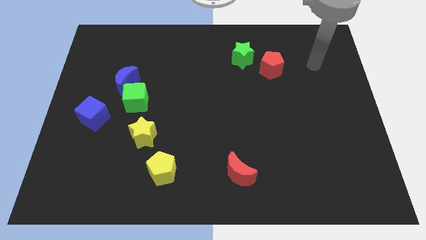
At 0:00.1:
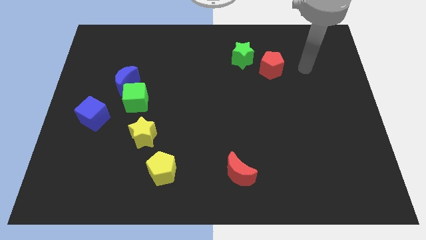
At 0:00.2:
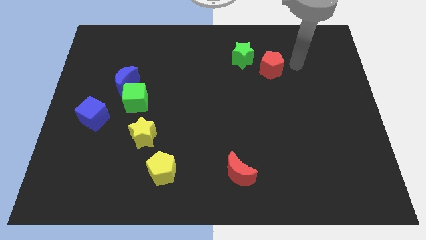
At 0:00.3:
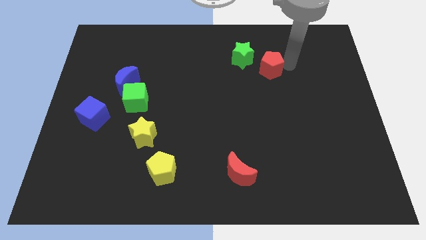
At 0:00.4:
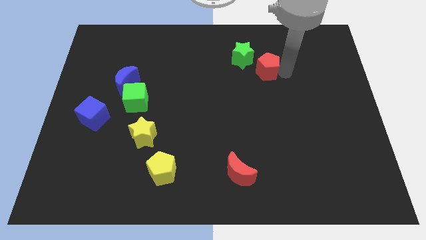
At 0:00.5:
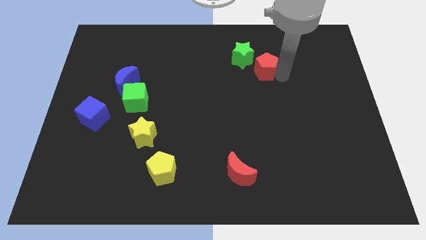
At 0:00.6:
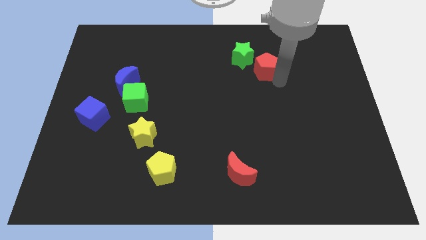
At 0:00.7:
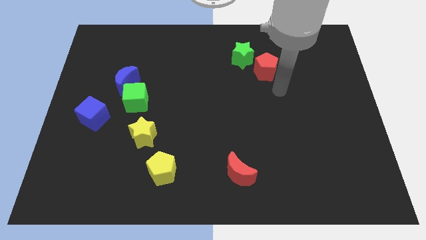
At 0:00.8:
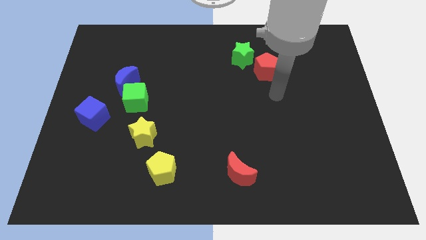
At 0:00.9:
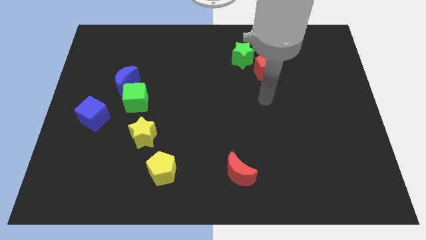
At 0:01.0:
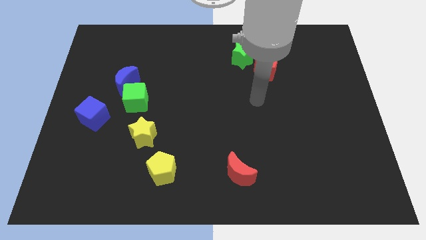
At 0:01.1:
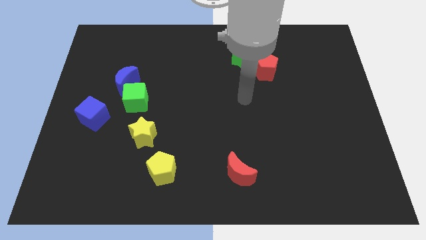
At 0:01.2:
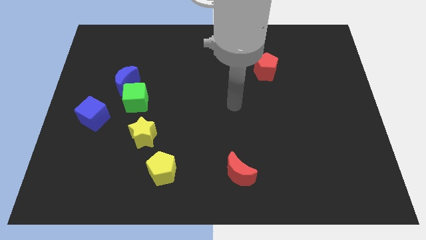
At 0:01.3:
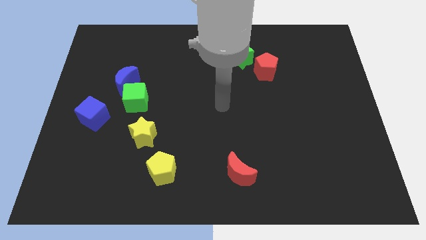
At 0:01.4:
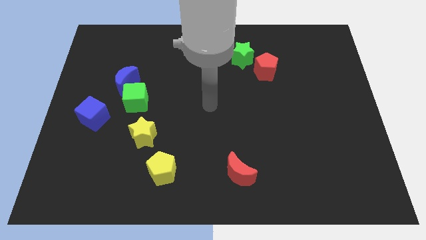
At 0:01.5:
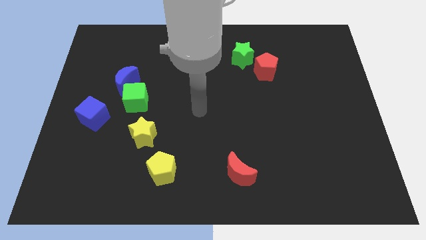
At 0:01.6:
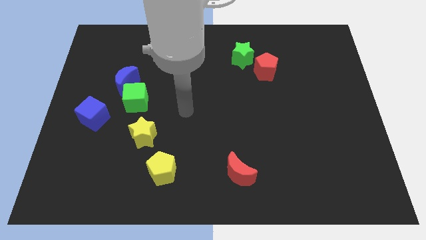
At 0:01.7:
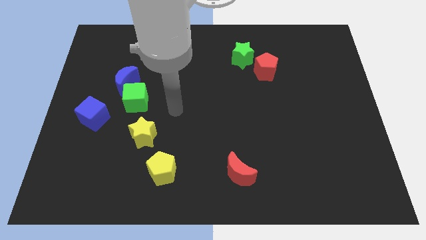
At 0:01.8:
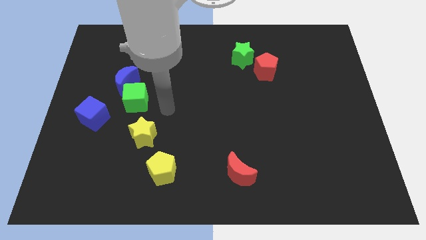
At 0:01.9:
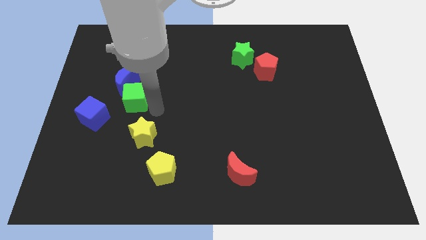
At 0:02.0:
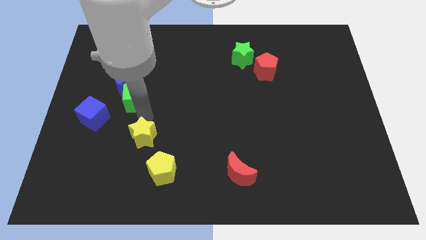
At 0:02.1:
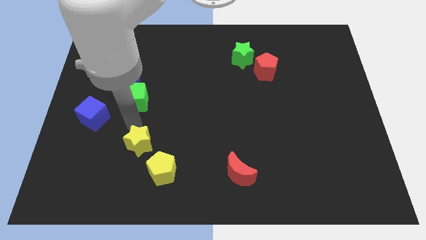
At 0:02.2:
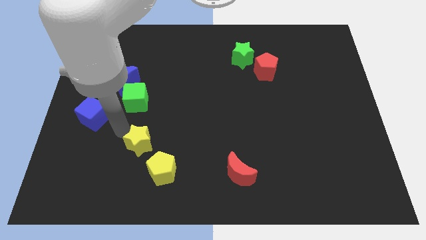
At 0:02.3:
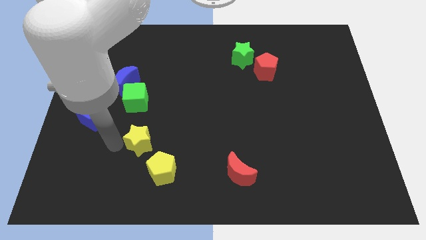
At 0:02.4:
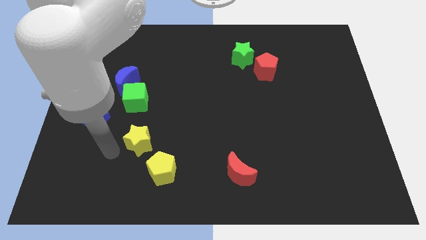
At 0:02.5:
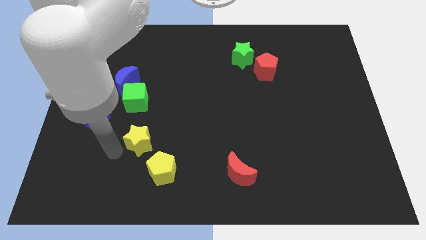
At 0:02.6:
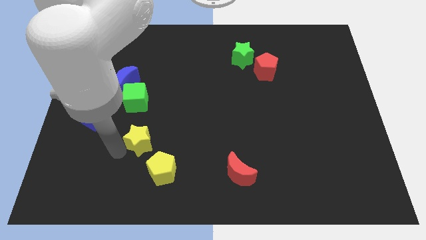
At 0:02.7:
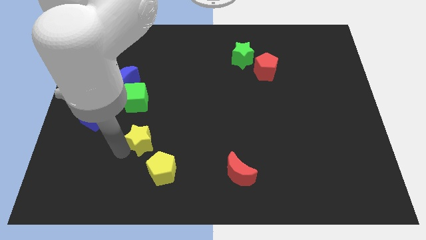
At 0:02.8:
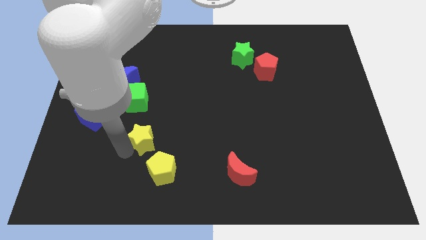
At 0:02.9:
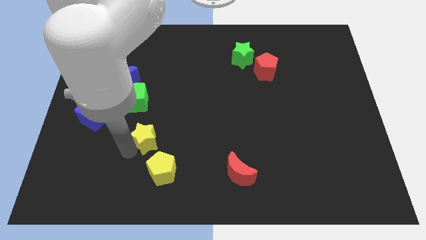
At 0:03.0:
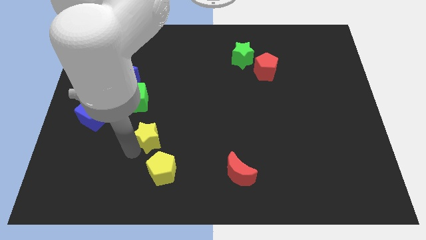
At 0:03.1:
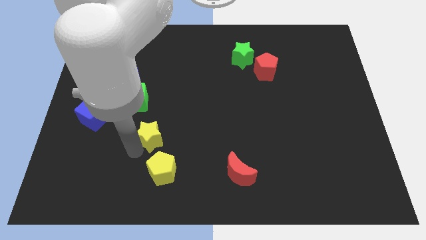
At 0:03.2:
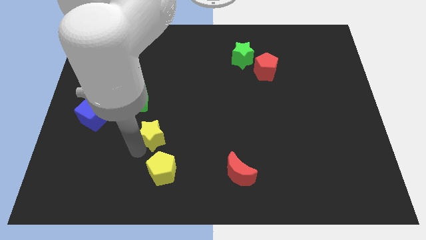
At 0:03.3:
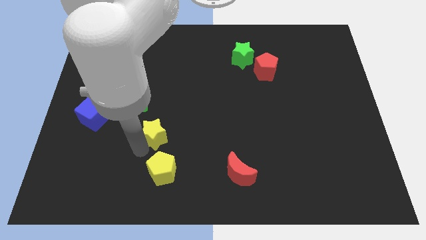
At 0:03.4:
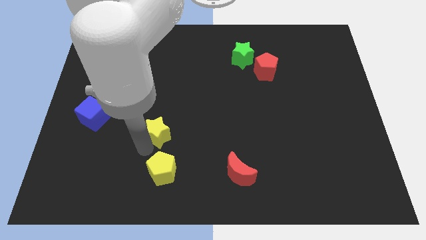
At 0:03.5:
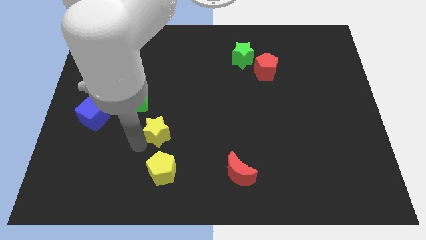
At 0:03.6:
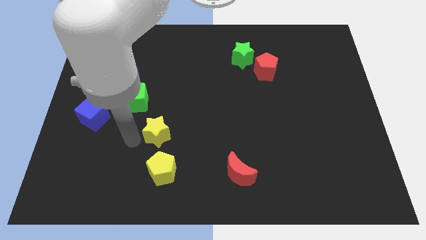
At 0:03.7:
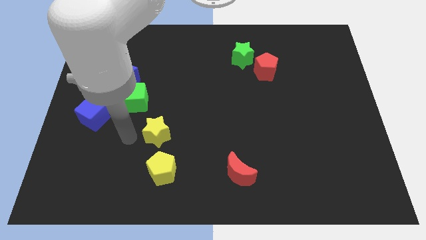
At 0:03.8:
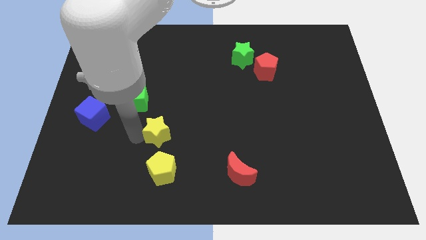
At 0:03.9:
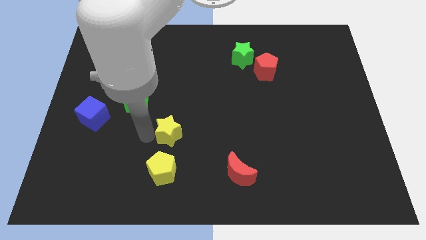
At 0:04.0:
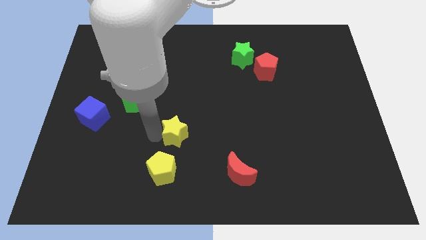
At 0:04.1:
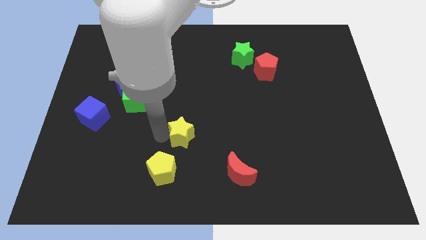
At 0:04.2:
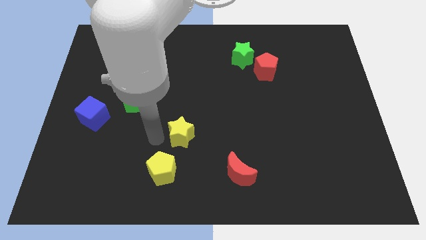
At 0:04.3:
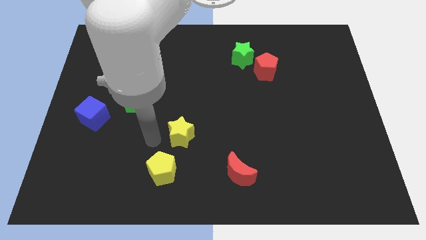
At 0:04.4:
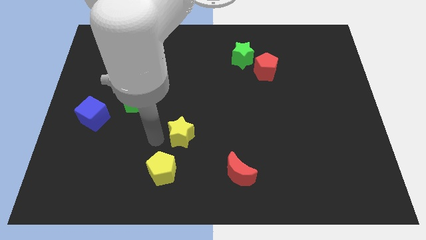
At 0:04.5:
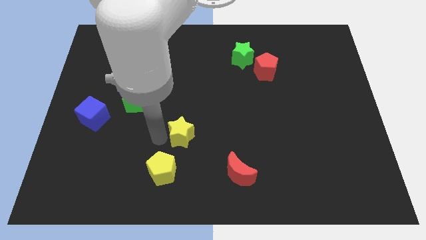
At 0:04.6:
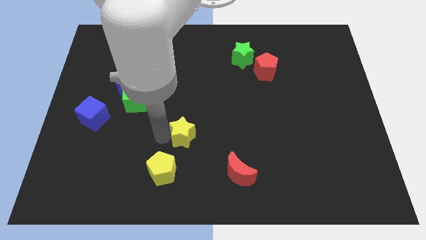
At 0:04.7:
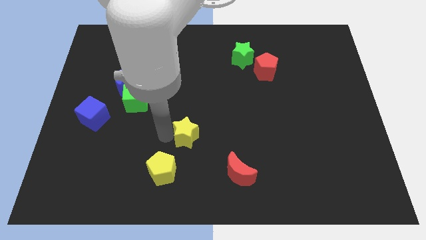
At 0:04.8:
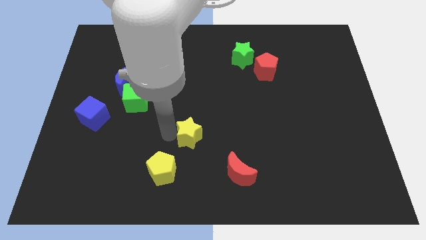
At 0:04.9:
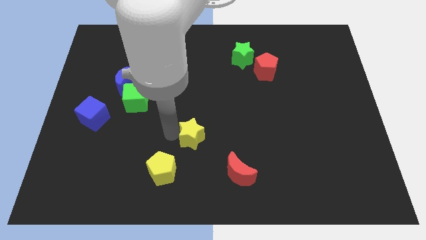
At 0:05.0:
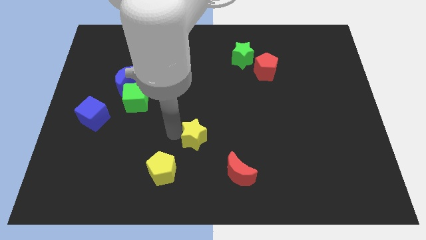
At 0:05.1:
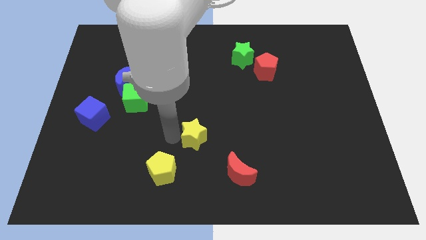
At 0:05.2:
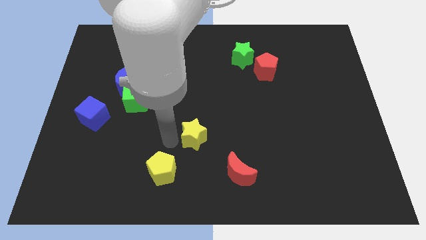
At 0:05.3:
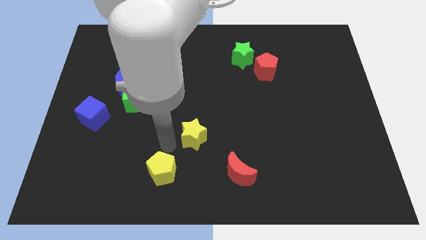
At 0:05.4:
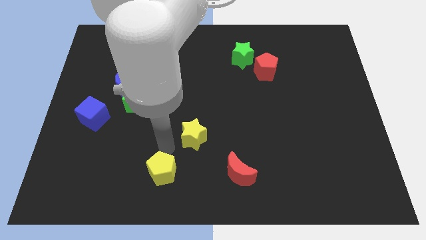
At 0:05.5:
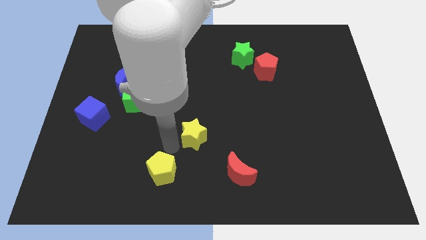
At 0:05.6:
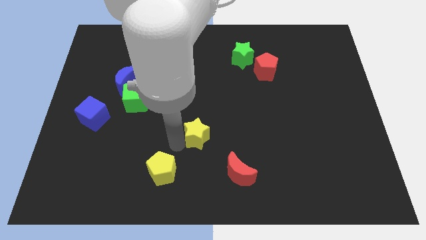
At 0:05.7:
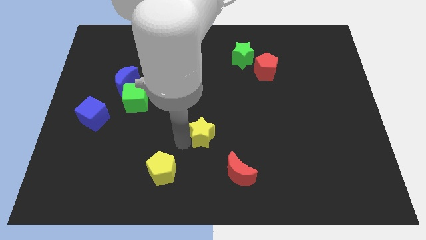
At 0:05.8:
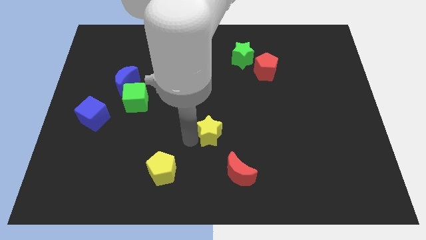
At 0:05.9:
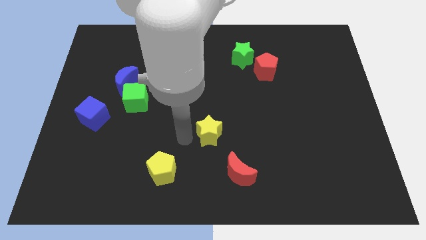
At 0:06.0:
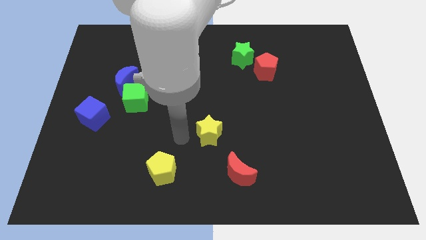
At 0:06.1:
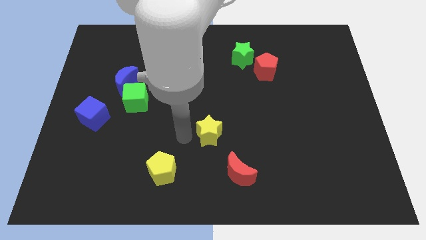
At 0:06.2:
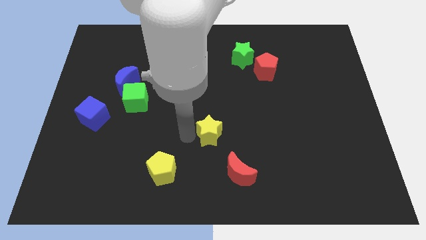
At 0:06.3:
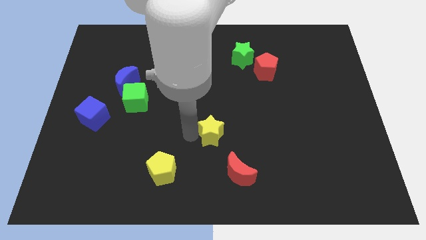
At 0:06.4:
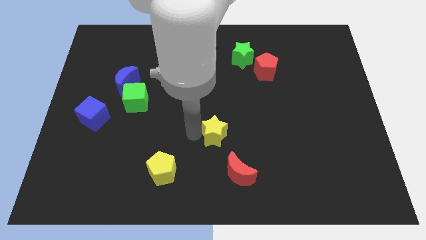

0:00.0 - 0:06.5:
move the yellow star to the top side of the red moon

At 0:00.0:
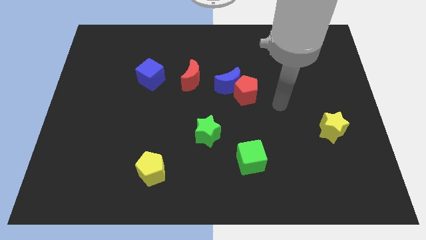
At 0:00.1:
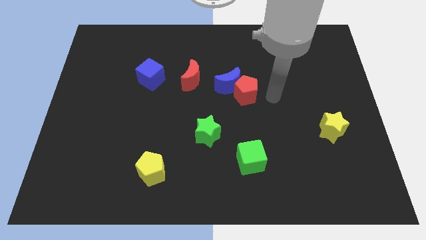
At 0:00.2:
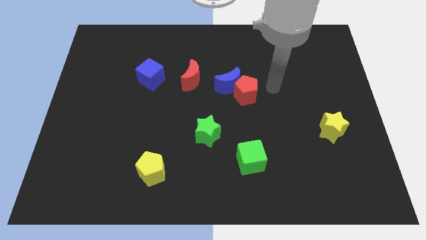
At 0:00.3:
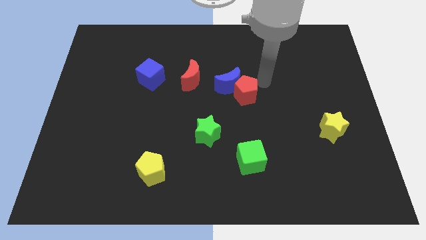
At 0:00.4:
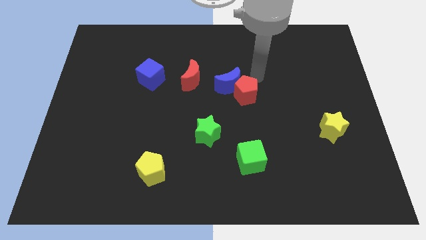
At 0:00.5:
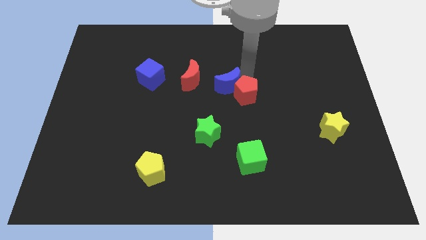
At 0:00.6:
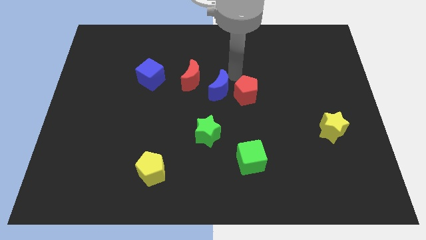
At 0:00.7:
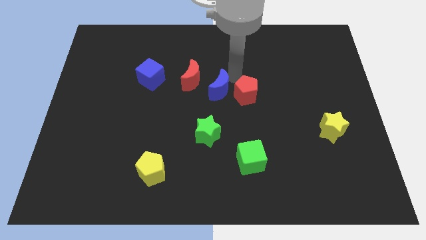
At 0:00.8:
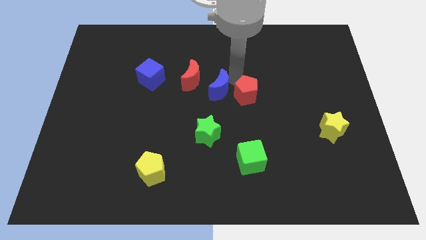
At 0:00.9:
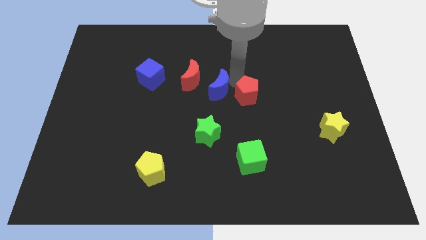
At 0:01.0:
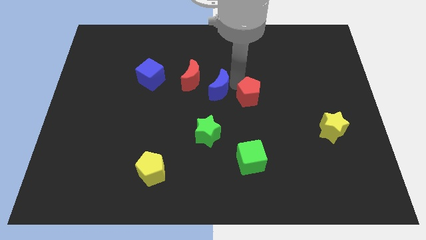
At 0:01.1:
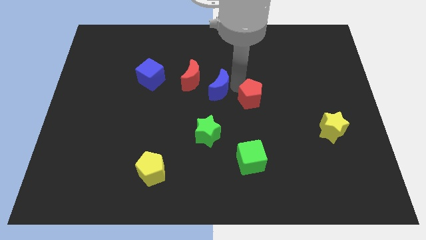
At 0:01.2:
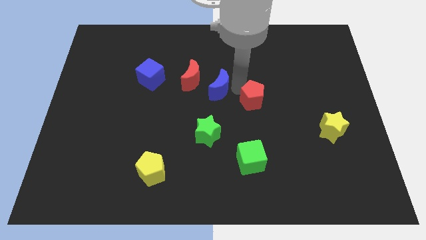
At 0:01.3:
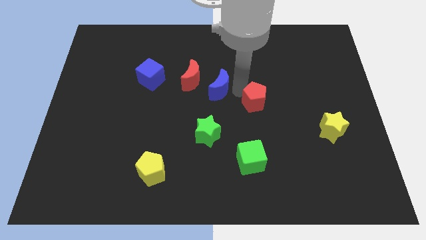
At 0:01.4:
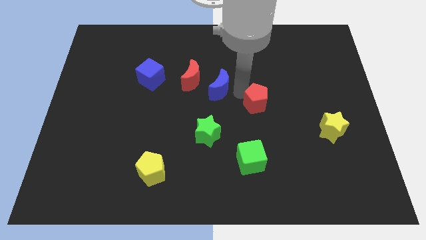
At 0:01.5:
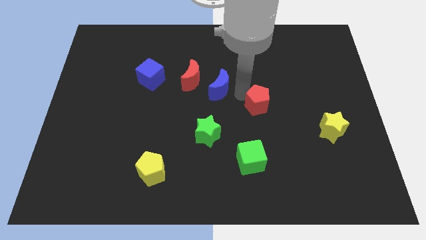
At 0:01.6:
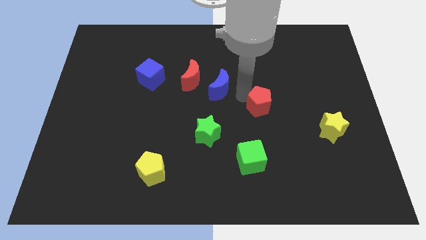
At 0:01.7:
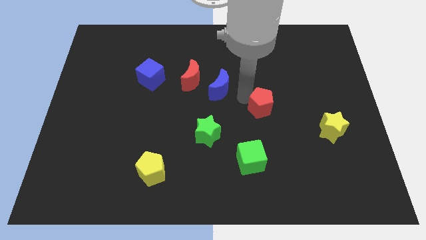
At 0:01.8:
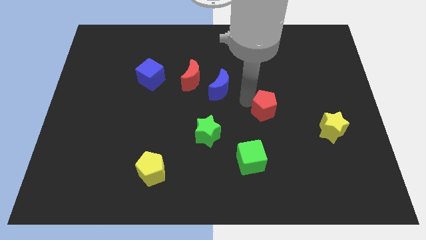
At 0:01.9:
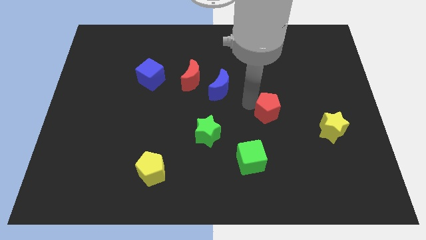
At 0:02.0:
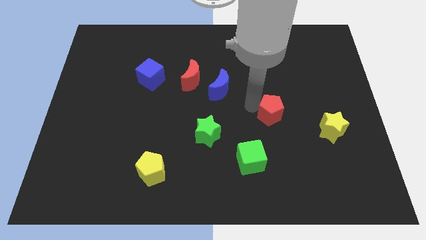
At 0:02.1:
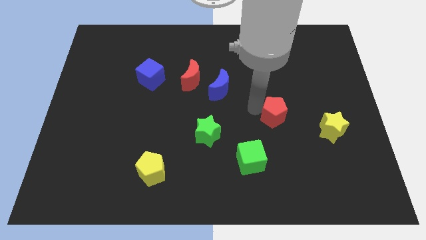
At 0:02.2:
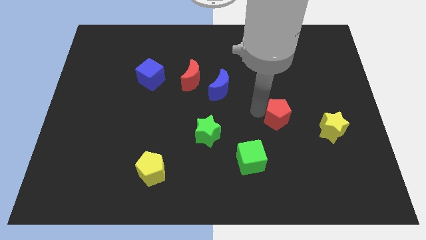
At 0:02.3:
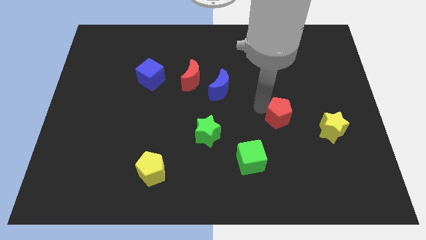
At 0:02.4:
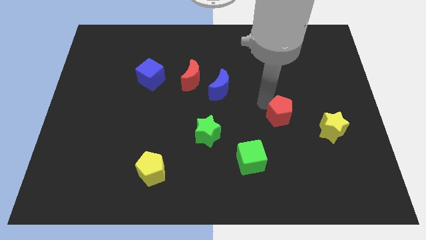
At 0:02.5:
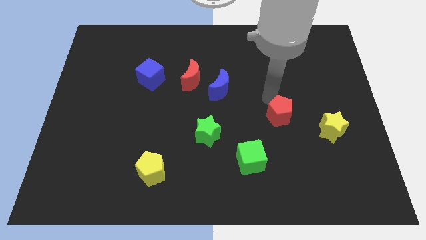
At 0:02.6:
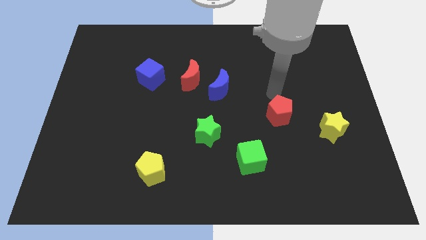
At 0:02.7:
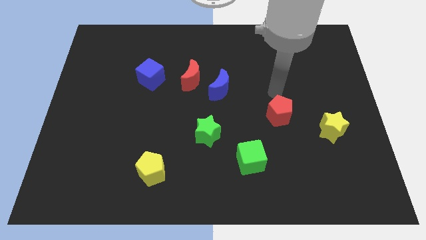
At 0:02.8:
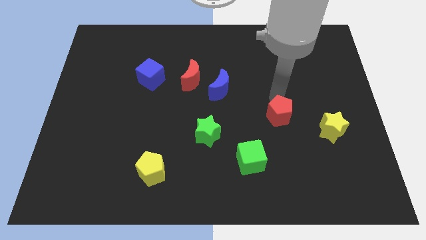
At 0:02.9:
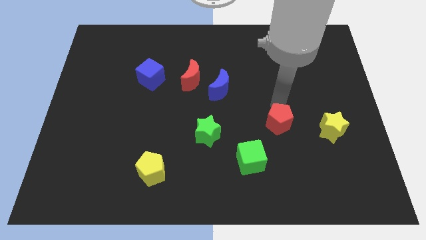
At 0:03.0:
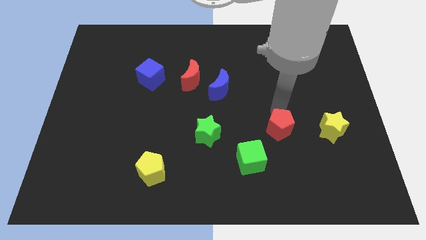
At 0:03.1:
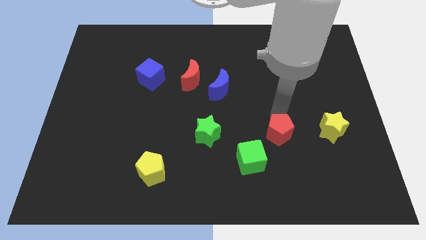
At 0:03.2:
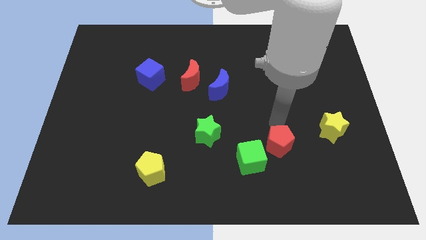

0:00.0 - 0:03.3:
put the red pentagon right of the green cube
